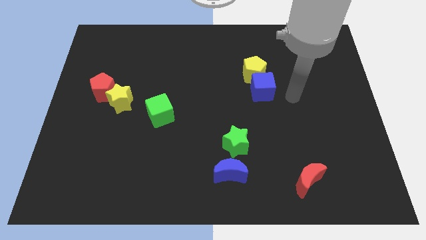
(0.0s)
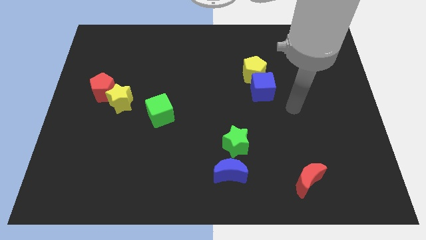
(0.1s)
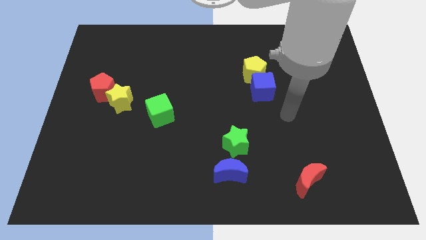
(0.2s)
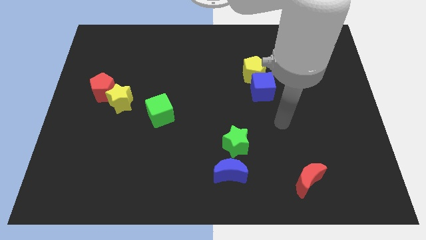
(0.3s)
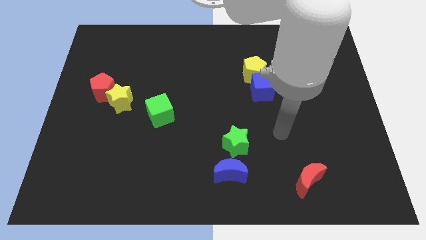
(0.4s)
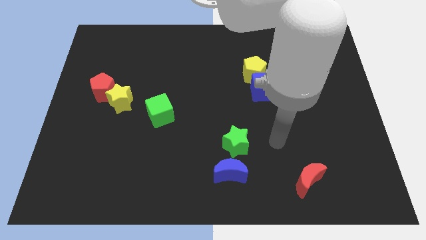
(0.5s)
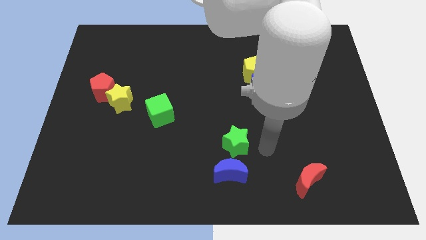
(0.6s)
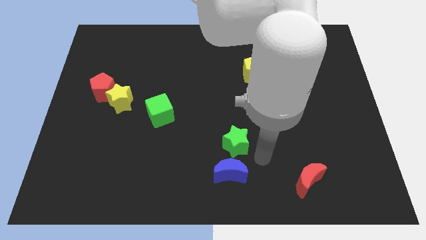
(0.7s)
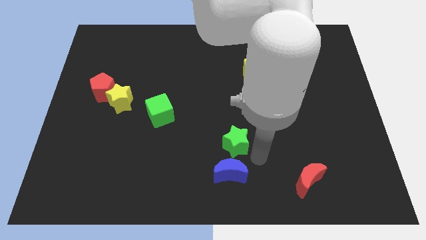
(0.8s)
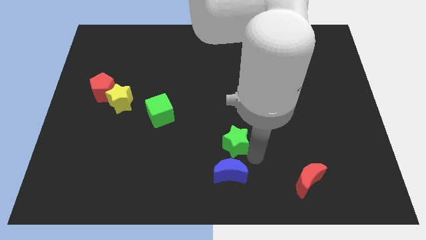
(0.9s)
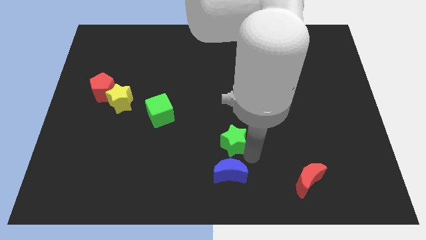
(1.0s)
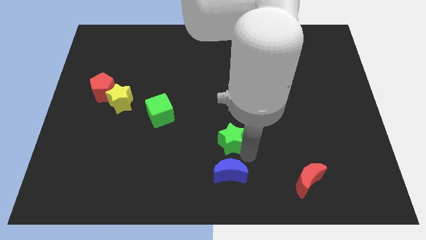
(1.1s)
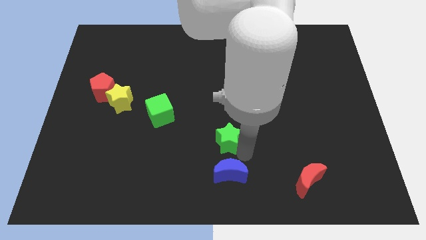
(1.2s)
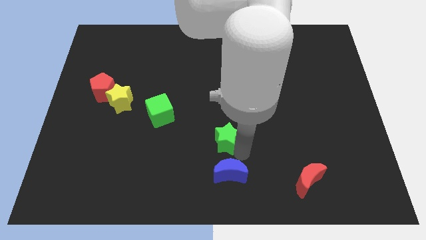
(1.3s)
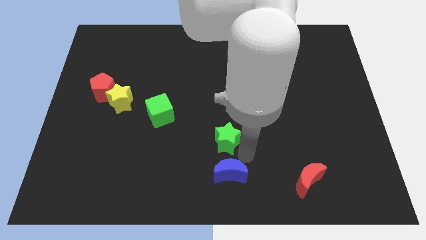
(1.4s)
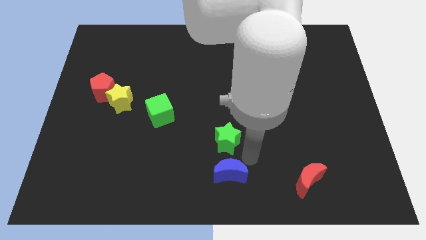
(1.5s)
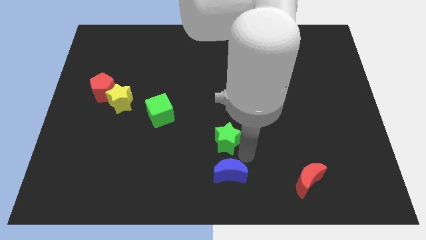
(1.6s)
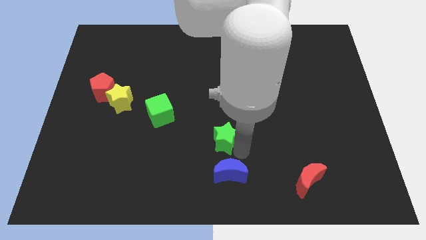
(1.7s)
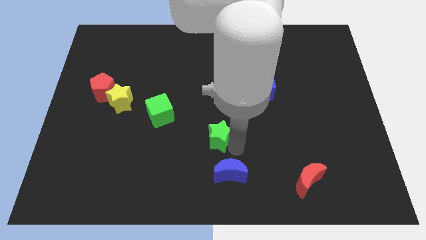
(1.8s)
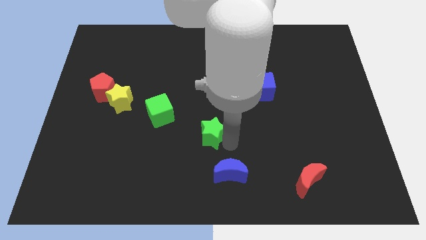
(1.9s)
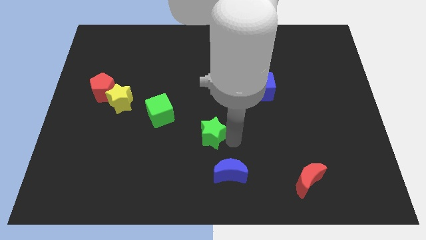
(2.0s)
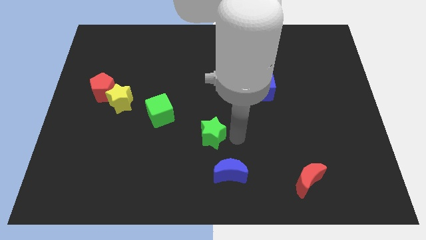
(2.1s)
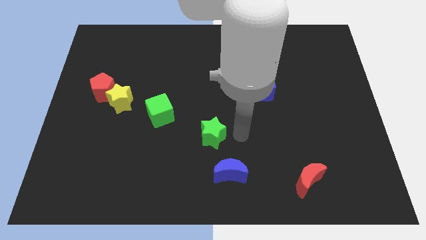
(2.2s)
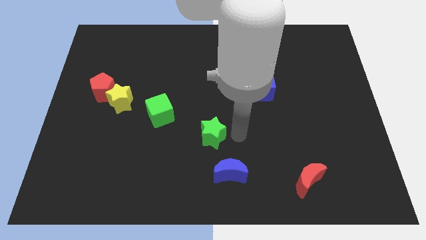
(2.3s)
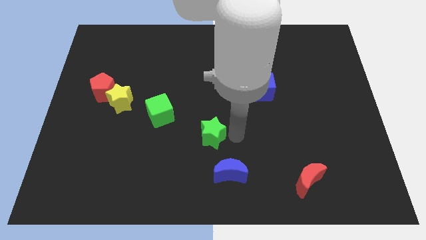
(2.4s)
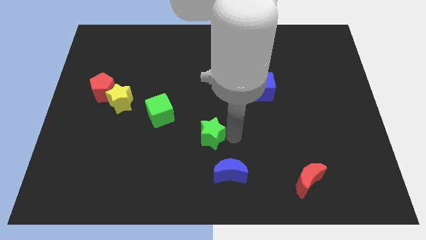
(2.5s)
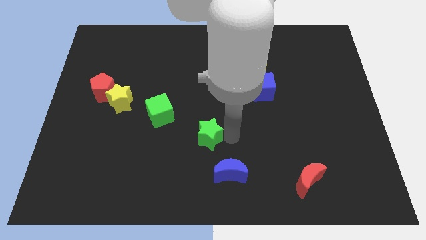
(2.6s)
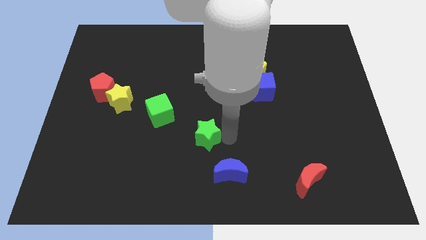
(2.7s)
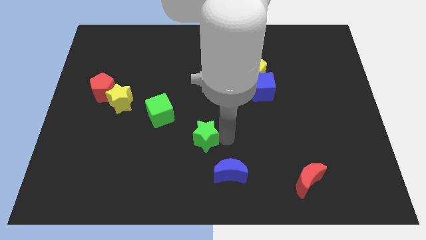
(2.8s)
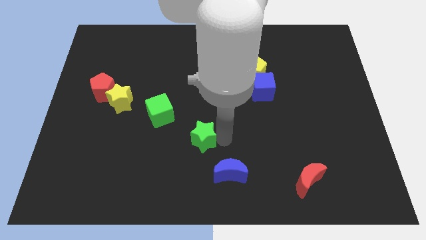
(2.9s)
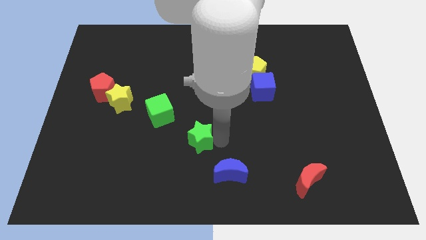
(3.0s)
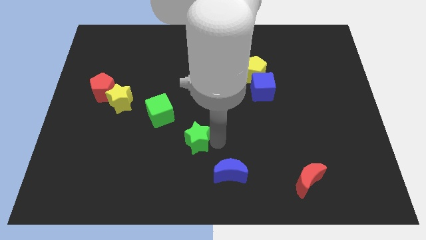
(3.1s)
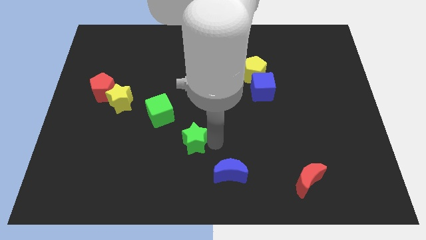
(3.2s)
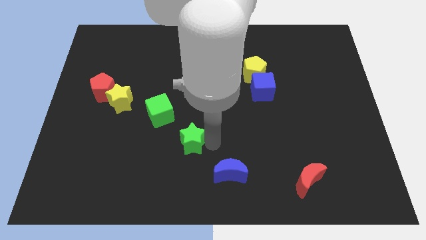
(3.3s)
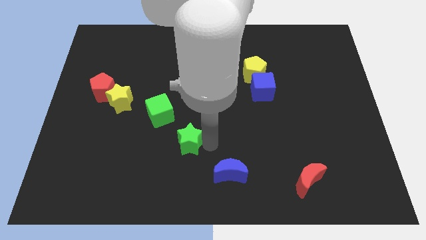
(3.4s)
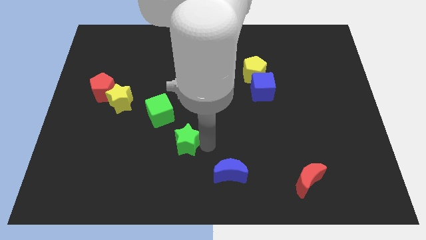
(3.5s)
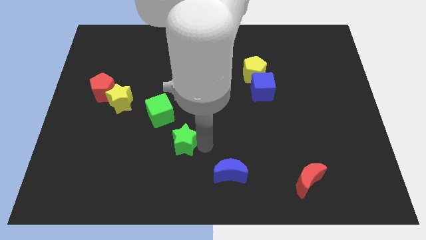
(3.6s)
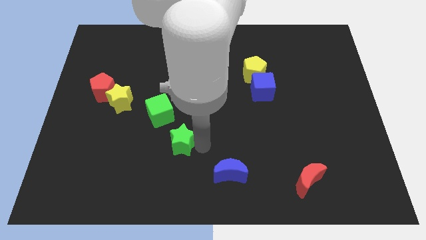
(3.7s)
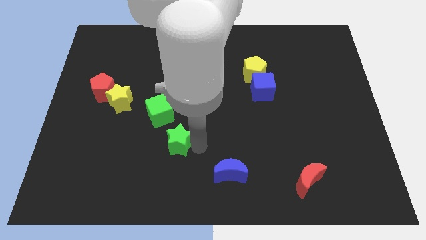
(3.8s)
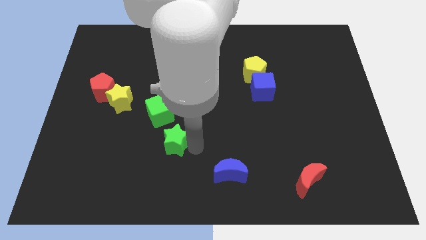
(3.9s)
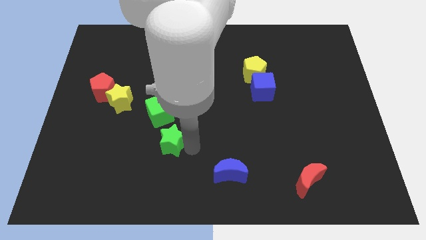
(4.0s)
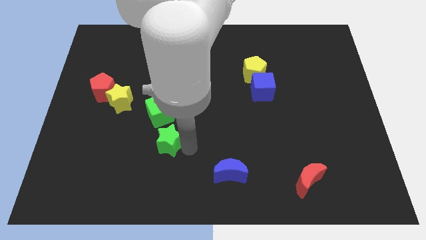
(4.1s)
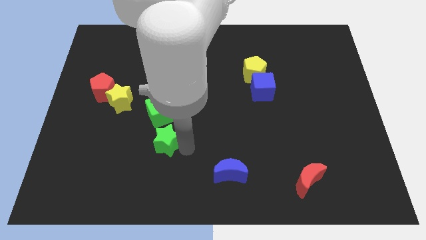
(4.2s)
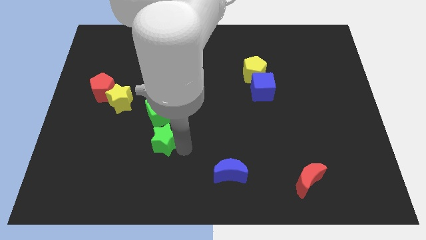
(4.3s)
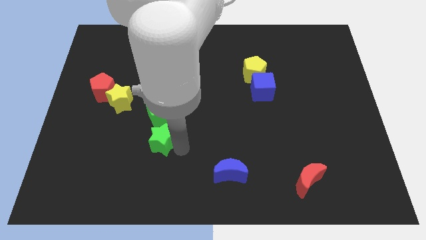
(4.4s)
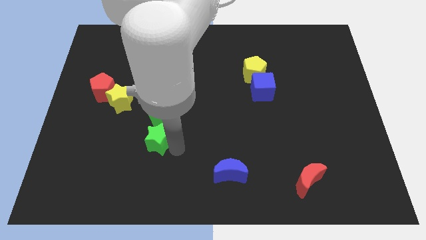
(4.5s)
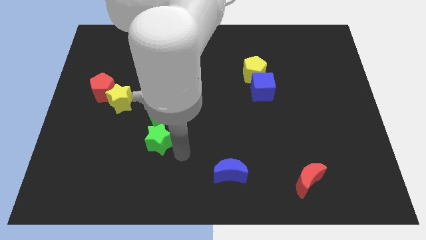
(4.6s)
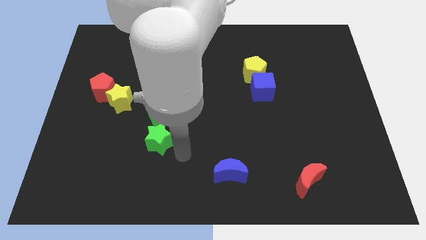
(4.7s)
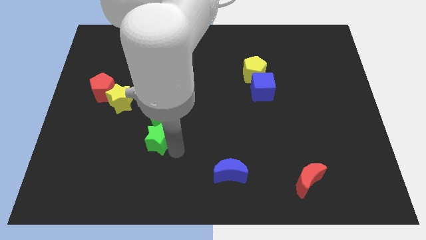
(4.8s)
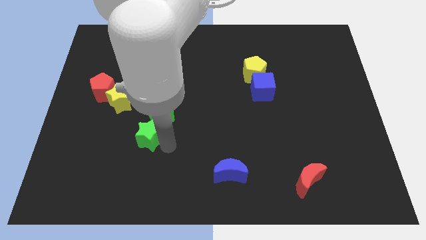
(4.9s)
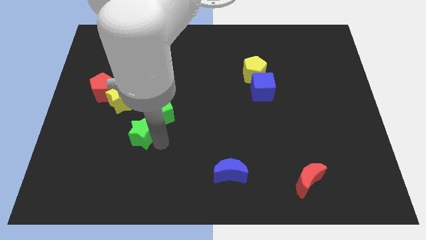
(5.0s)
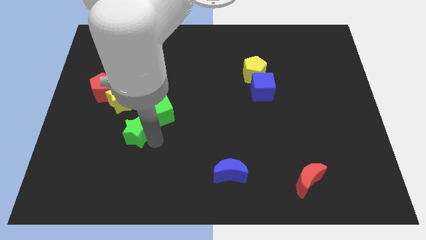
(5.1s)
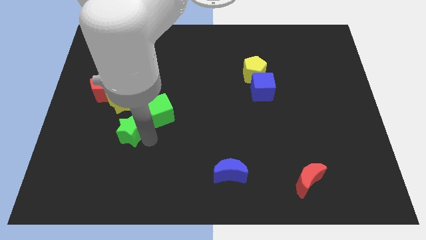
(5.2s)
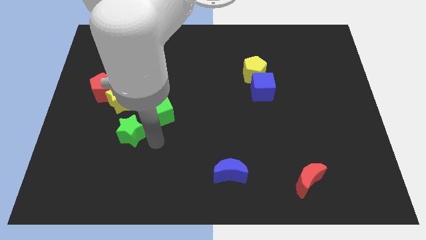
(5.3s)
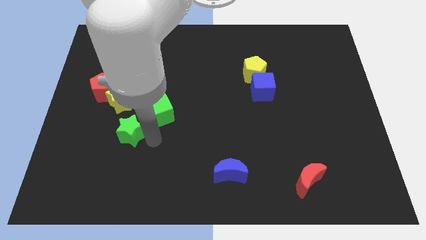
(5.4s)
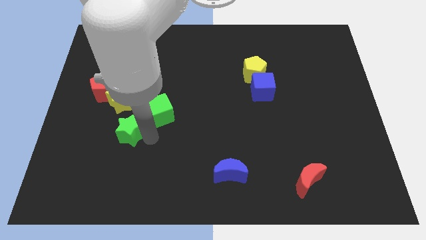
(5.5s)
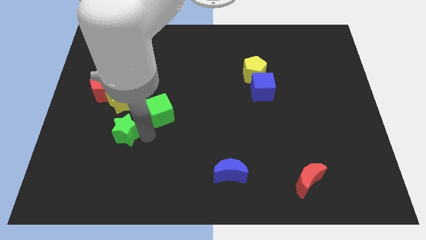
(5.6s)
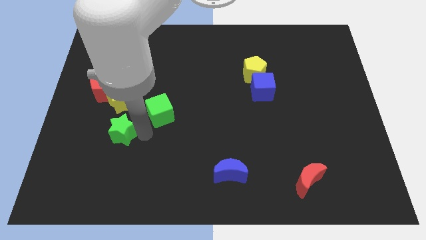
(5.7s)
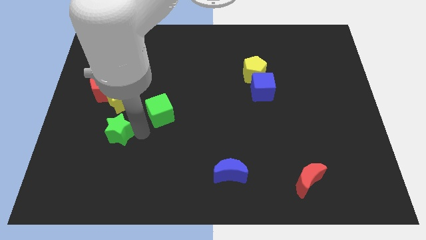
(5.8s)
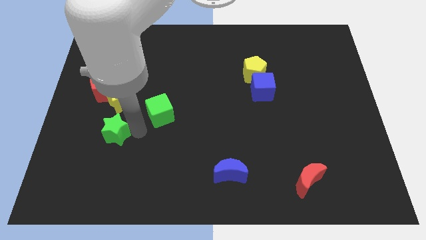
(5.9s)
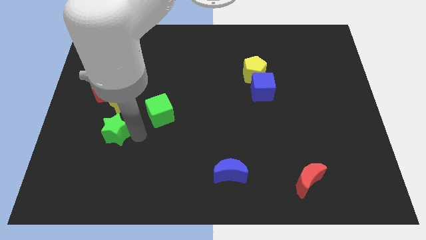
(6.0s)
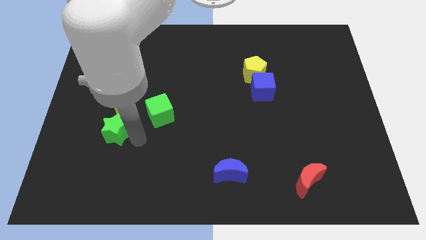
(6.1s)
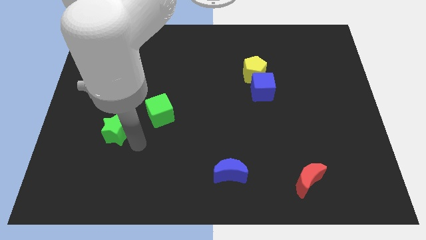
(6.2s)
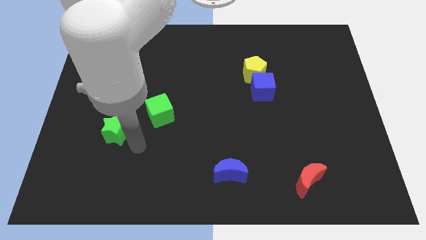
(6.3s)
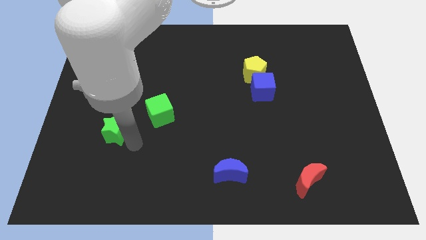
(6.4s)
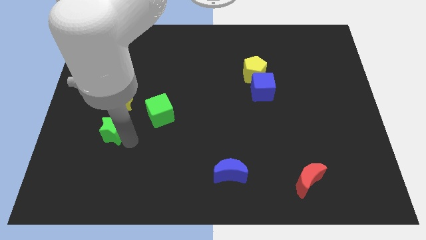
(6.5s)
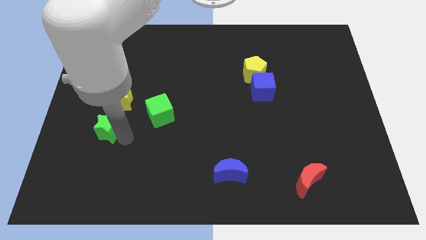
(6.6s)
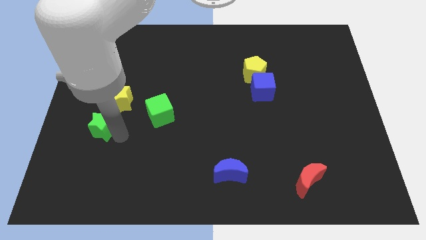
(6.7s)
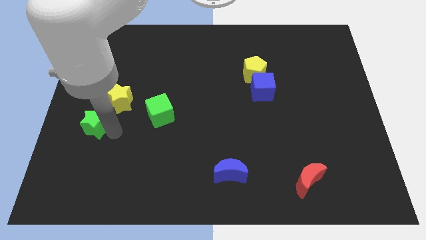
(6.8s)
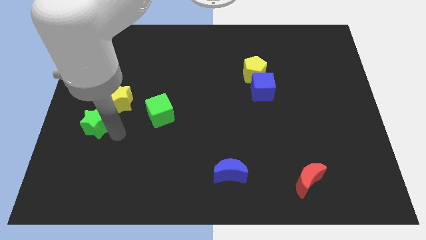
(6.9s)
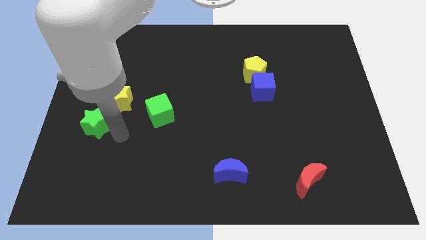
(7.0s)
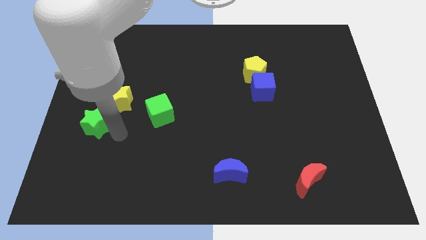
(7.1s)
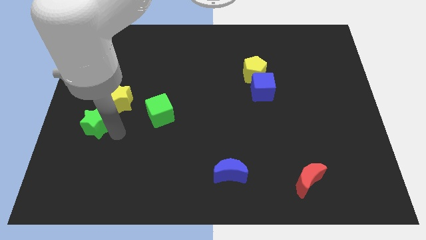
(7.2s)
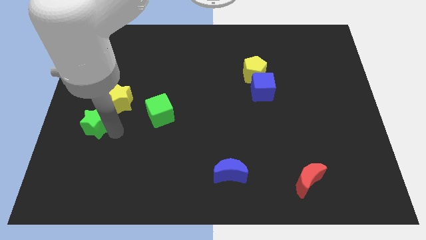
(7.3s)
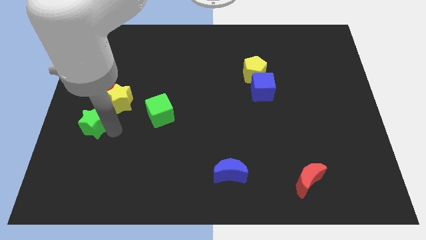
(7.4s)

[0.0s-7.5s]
put the green star to the left side of the board
